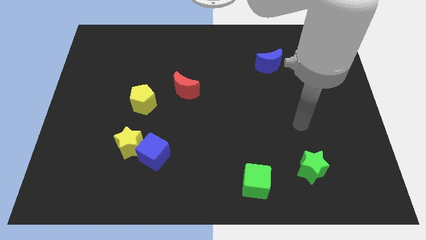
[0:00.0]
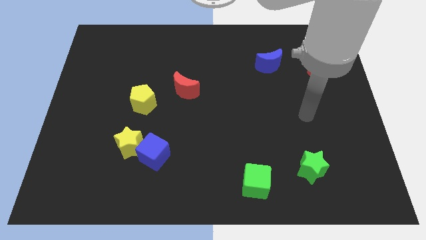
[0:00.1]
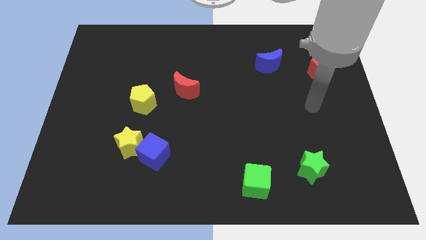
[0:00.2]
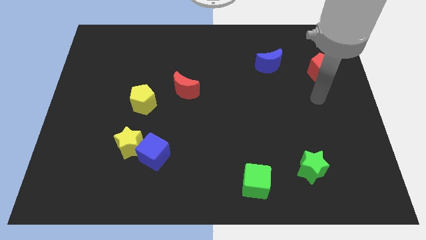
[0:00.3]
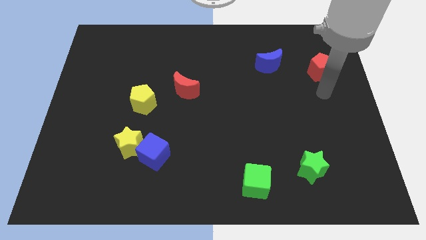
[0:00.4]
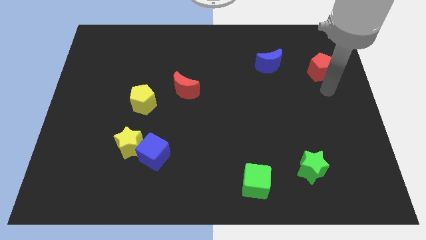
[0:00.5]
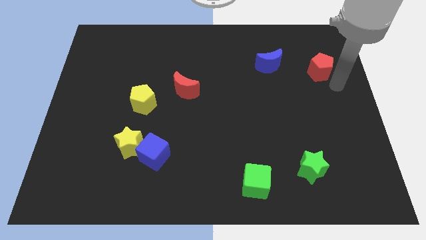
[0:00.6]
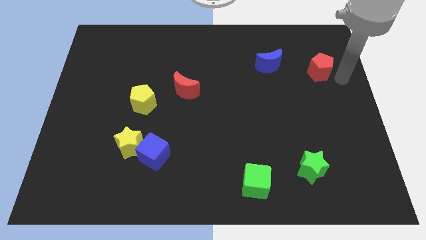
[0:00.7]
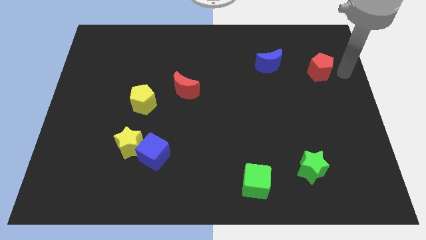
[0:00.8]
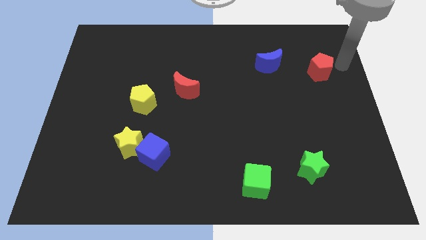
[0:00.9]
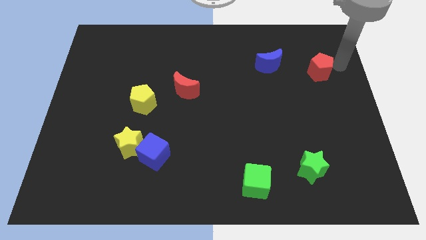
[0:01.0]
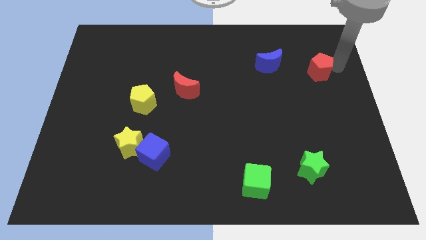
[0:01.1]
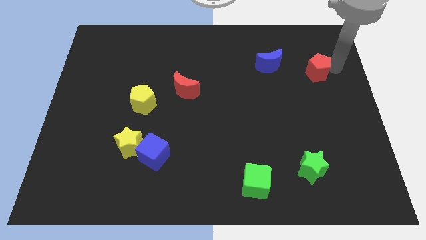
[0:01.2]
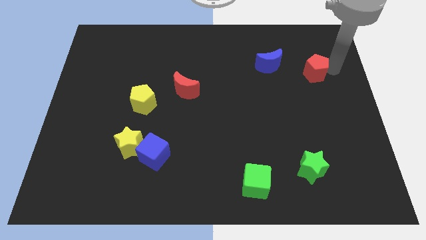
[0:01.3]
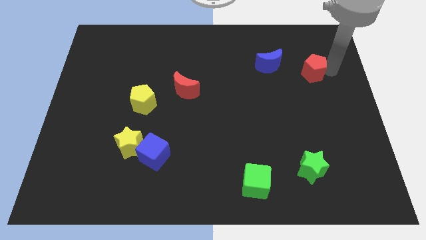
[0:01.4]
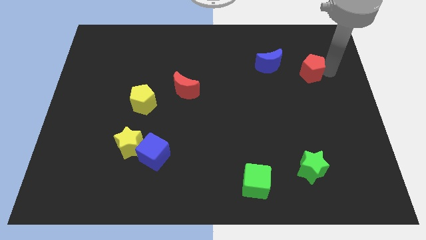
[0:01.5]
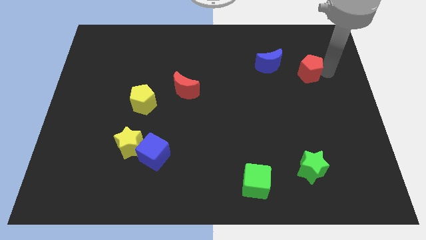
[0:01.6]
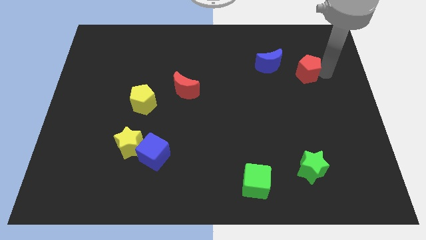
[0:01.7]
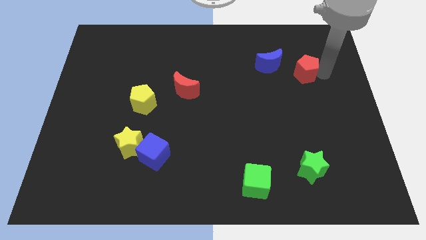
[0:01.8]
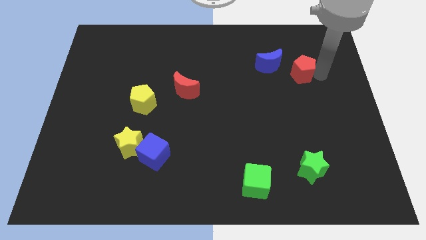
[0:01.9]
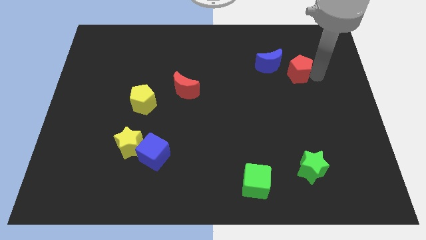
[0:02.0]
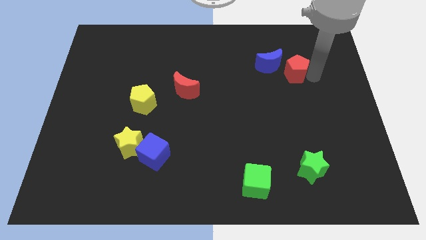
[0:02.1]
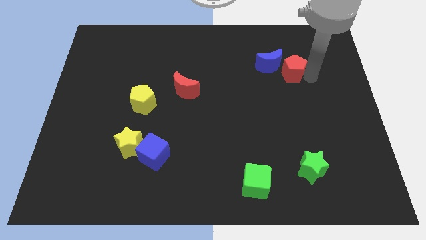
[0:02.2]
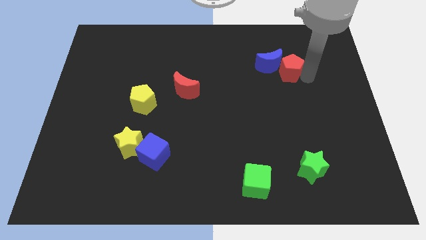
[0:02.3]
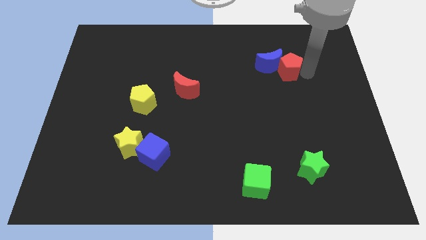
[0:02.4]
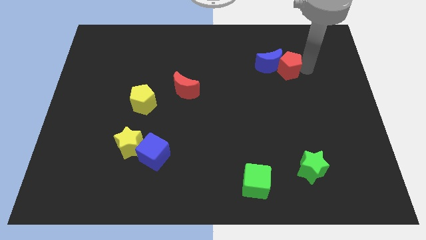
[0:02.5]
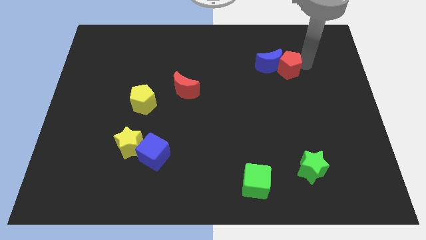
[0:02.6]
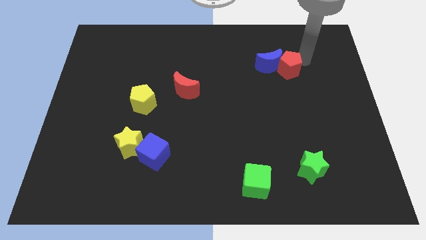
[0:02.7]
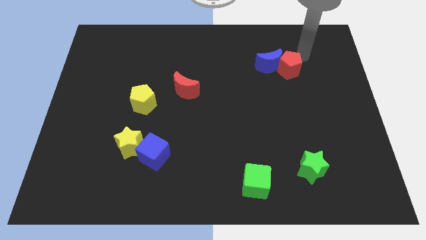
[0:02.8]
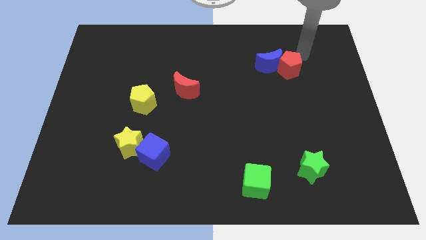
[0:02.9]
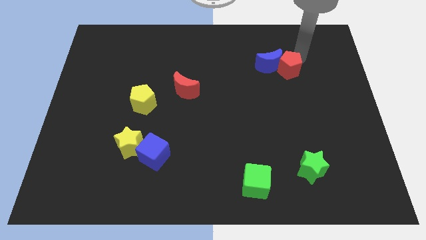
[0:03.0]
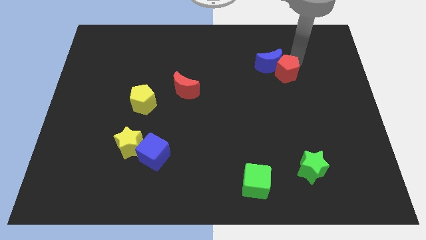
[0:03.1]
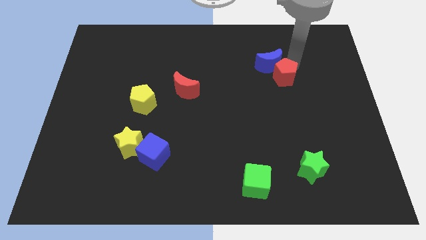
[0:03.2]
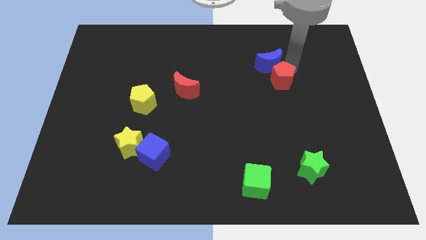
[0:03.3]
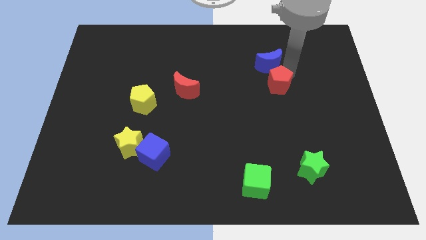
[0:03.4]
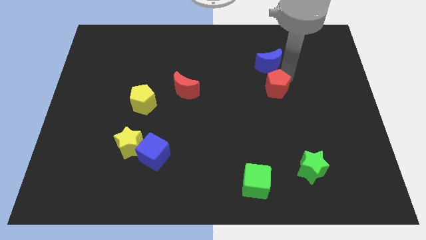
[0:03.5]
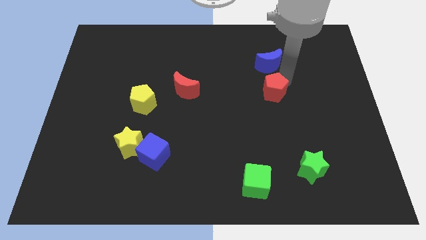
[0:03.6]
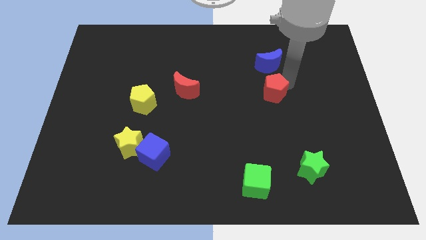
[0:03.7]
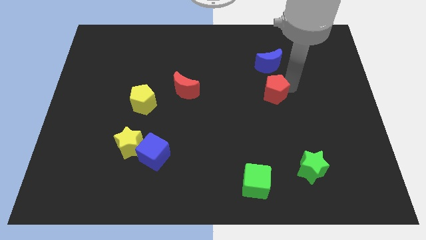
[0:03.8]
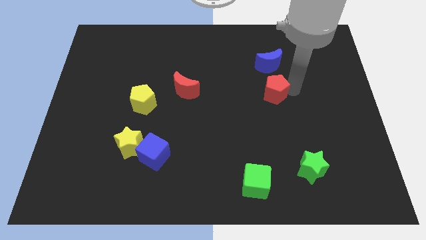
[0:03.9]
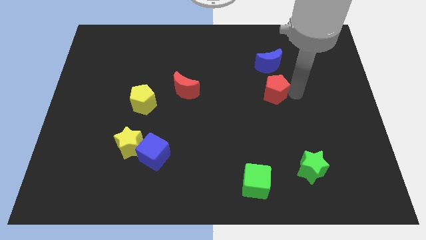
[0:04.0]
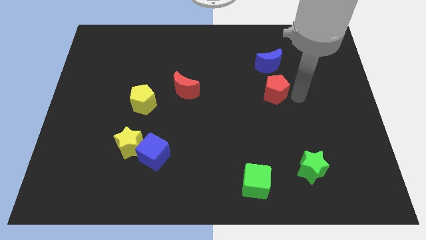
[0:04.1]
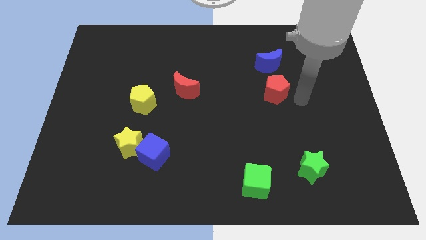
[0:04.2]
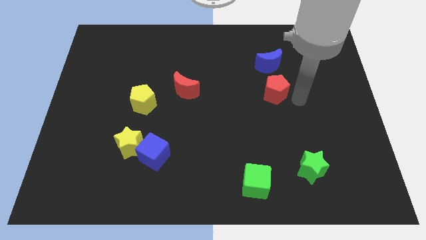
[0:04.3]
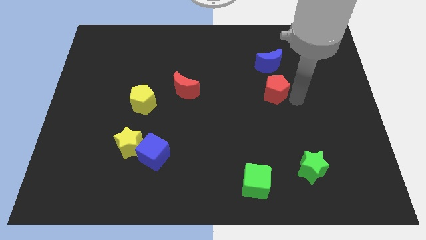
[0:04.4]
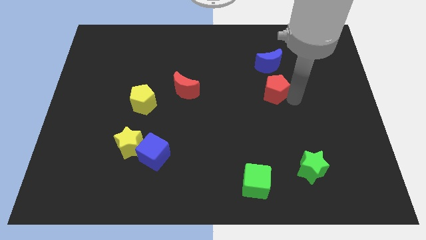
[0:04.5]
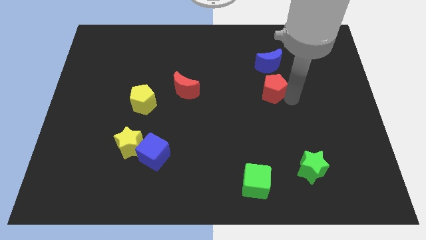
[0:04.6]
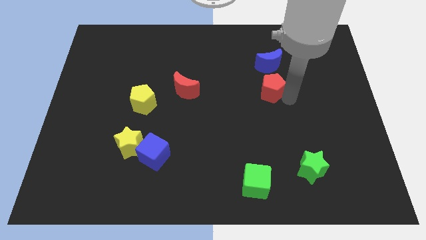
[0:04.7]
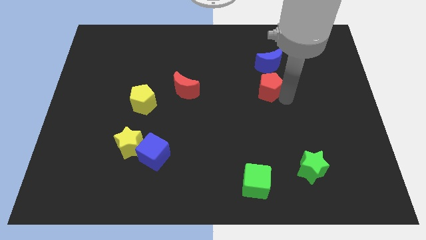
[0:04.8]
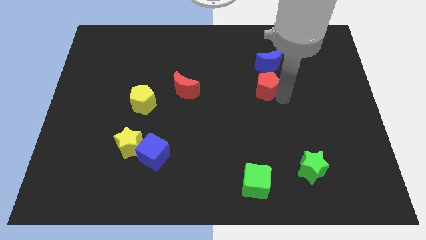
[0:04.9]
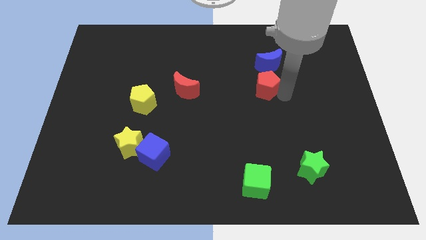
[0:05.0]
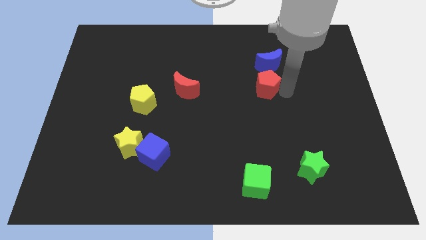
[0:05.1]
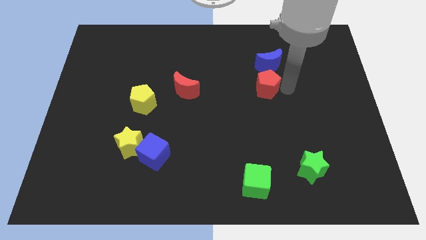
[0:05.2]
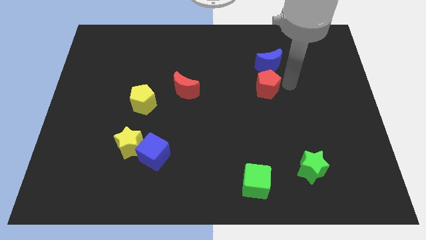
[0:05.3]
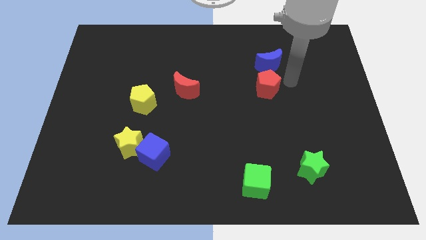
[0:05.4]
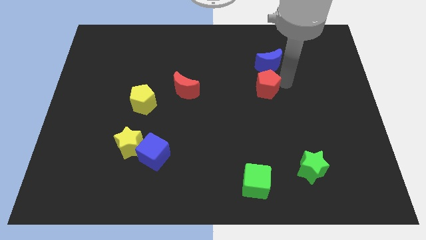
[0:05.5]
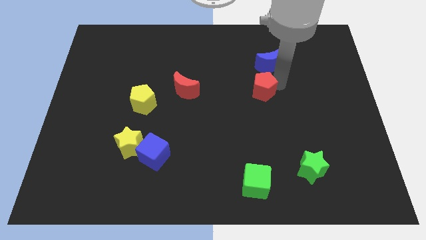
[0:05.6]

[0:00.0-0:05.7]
push the red pentagon to the center

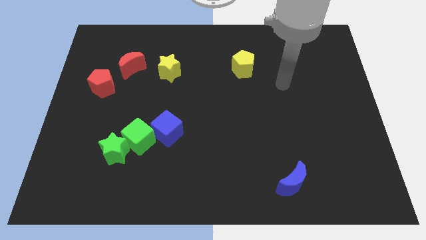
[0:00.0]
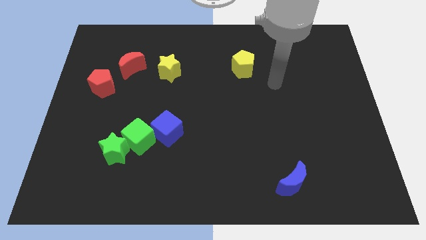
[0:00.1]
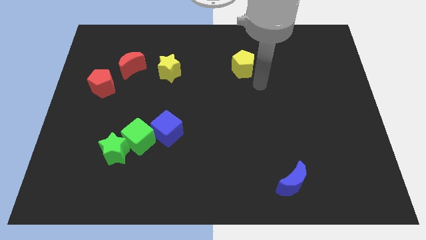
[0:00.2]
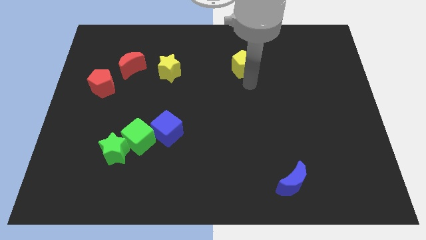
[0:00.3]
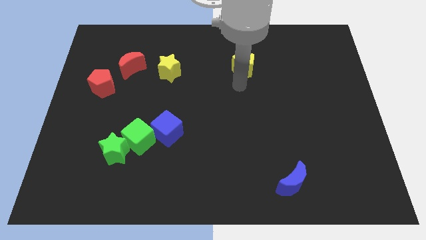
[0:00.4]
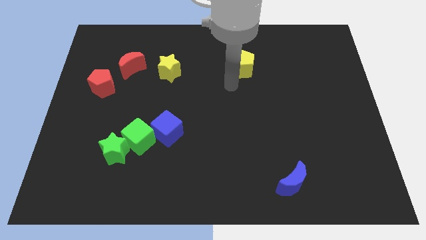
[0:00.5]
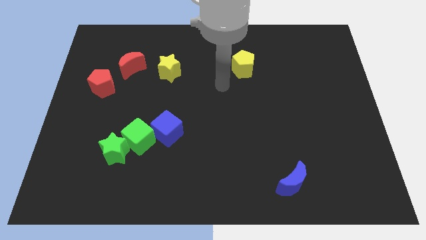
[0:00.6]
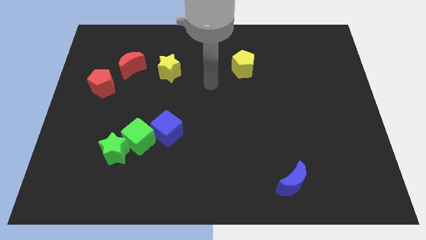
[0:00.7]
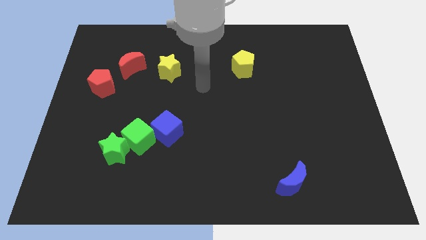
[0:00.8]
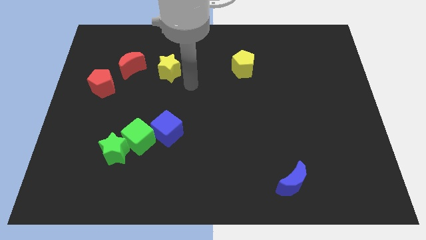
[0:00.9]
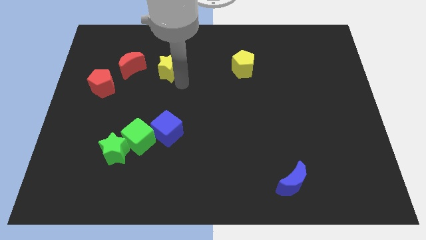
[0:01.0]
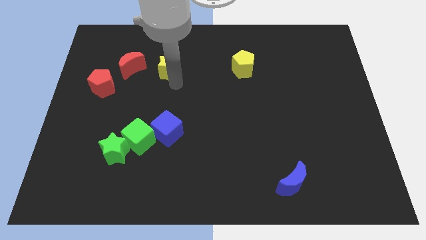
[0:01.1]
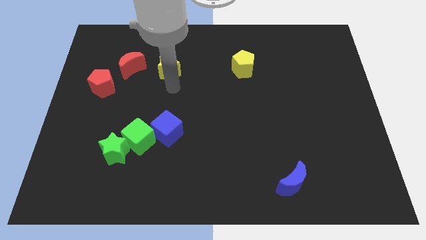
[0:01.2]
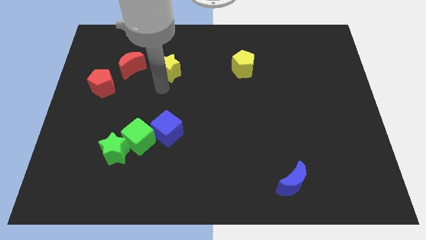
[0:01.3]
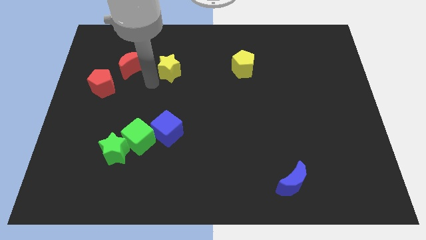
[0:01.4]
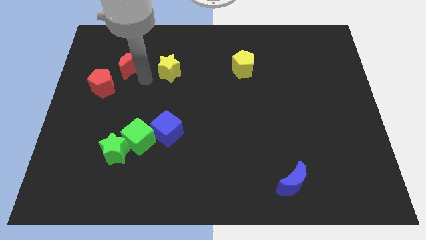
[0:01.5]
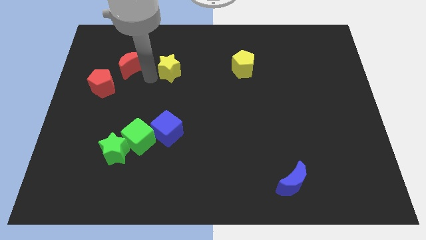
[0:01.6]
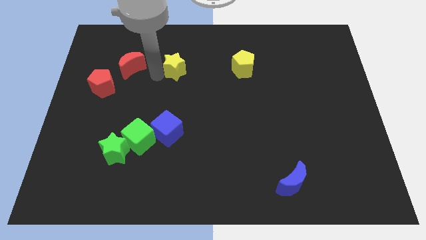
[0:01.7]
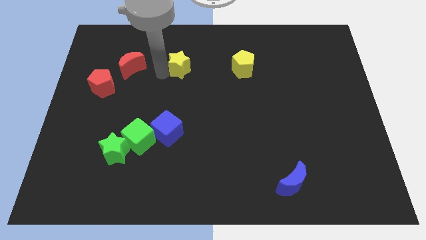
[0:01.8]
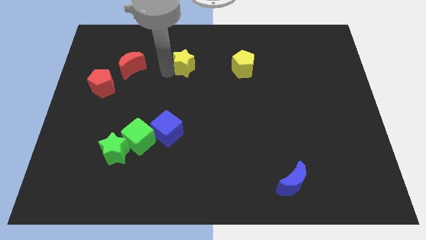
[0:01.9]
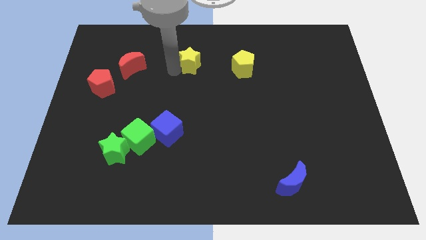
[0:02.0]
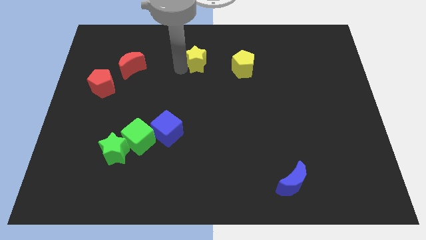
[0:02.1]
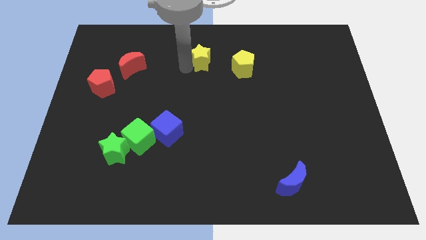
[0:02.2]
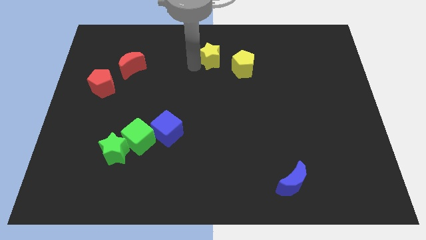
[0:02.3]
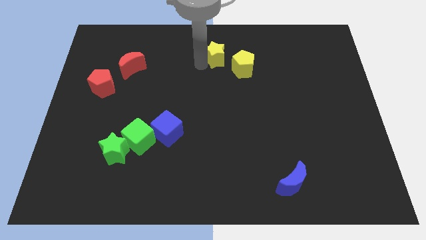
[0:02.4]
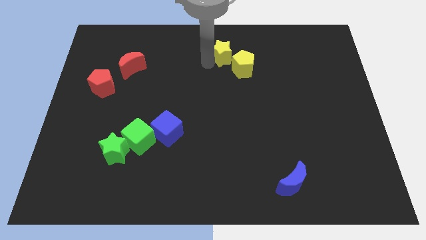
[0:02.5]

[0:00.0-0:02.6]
push the yellow star to the towards your base
